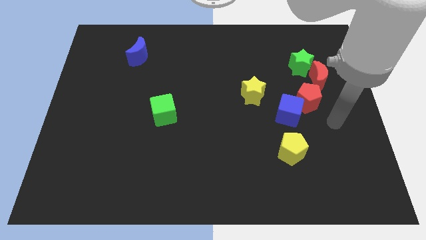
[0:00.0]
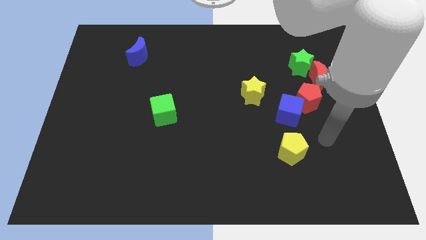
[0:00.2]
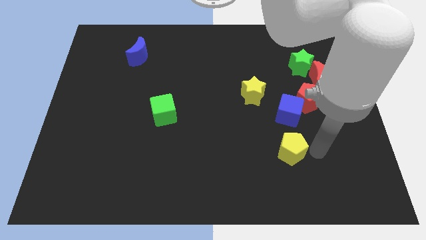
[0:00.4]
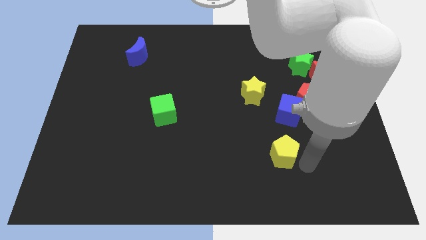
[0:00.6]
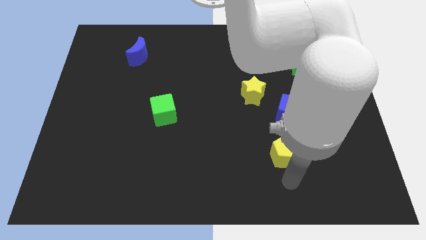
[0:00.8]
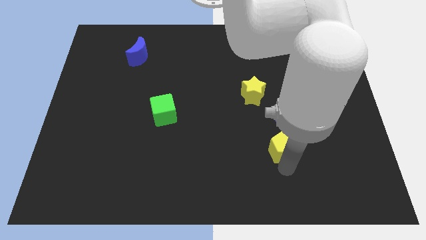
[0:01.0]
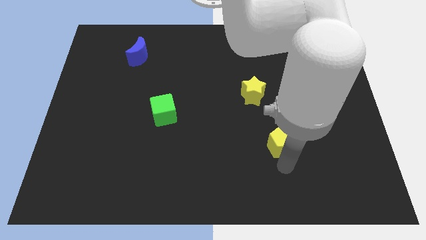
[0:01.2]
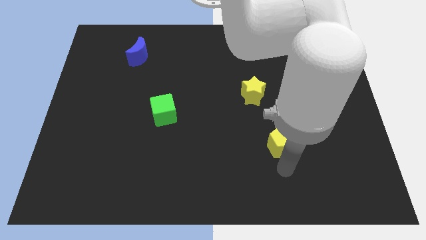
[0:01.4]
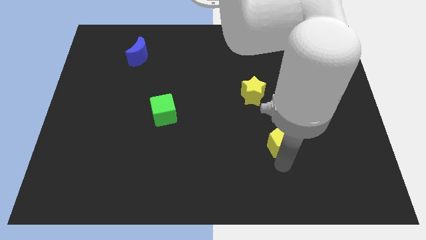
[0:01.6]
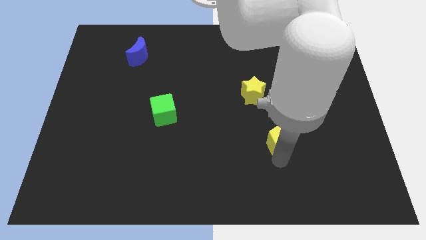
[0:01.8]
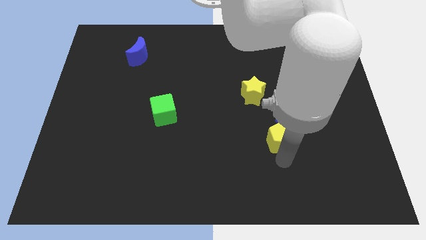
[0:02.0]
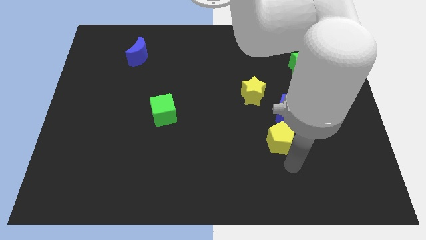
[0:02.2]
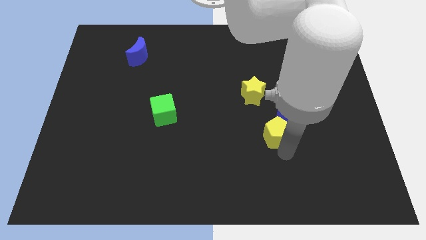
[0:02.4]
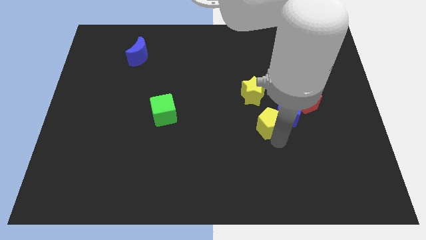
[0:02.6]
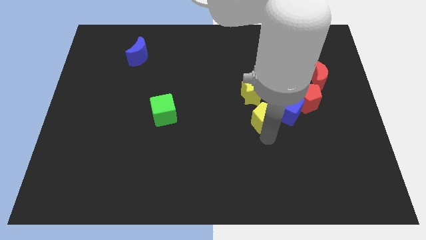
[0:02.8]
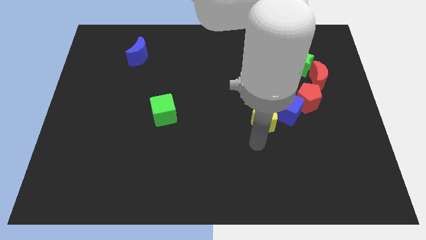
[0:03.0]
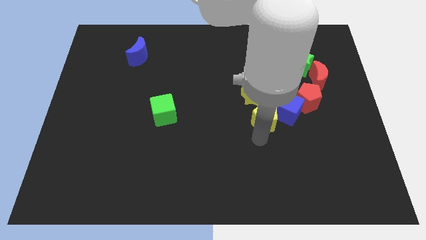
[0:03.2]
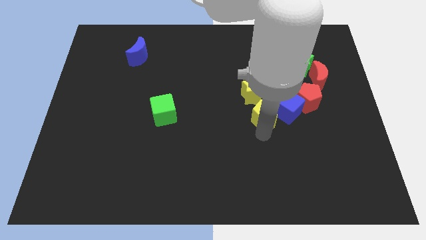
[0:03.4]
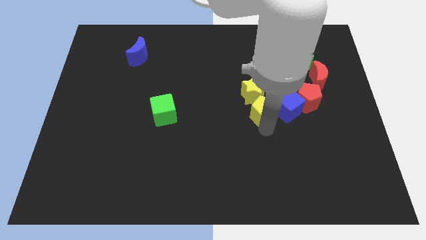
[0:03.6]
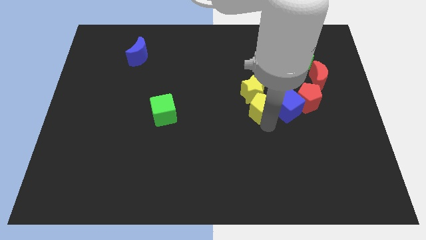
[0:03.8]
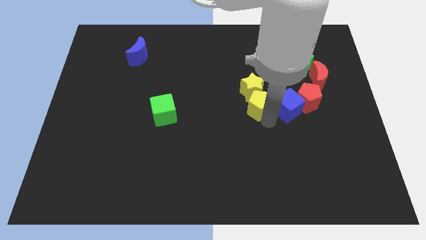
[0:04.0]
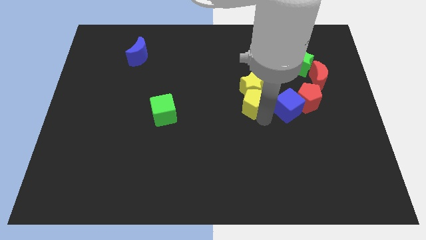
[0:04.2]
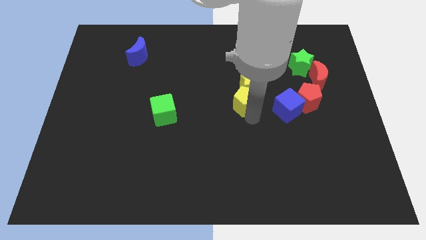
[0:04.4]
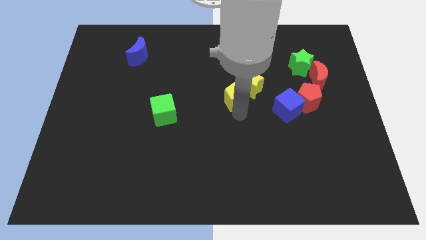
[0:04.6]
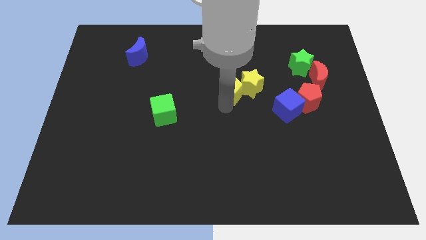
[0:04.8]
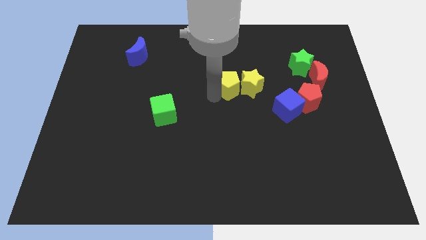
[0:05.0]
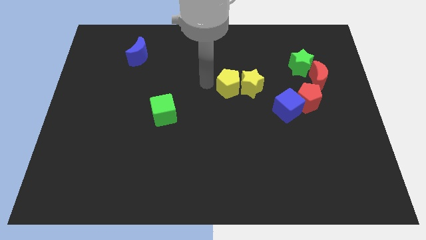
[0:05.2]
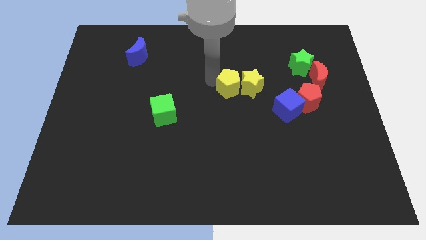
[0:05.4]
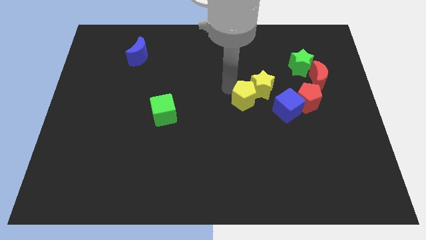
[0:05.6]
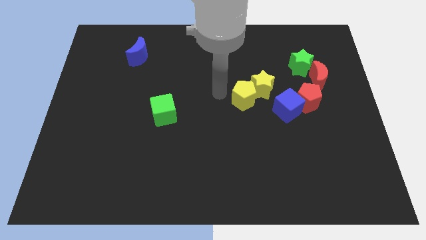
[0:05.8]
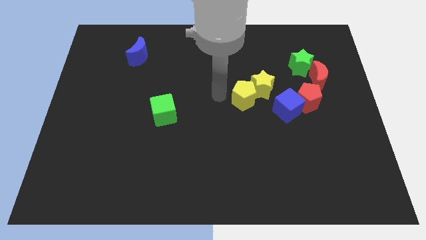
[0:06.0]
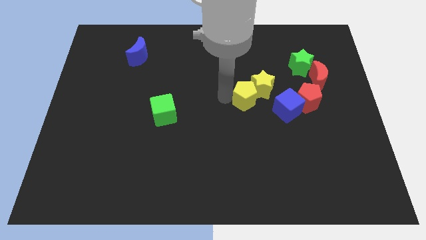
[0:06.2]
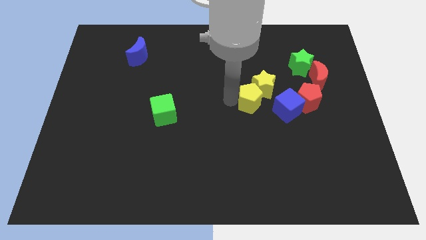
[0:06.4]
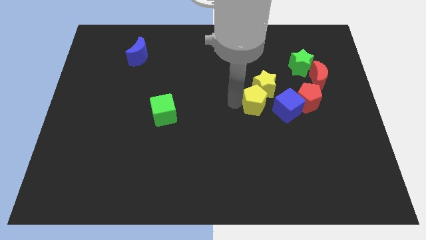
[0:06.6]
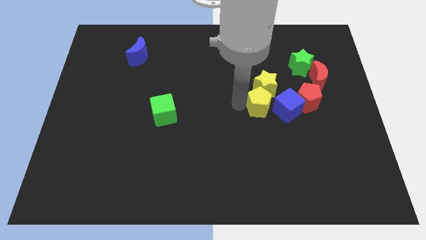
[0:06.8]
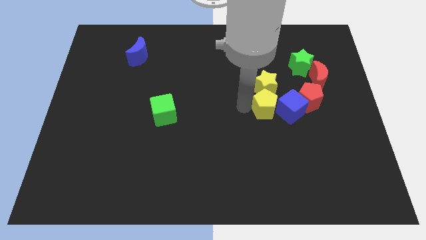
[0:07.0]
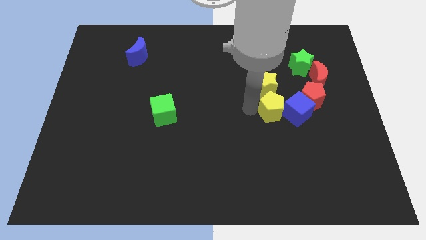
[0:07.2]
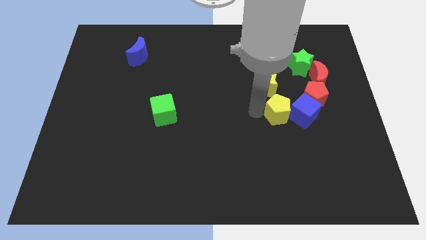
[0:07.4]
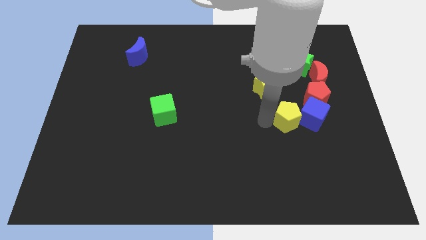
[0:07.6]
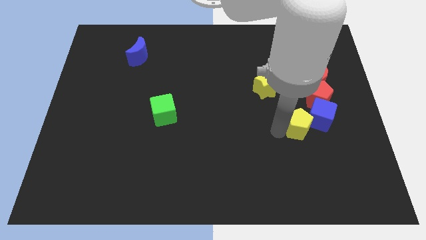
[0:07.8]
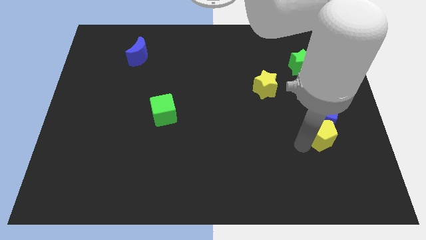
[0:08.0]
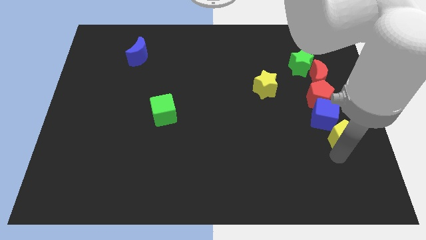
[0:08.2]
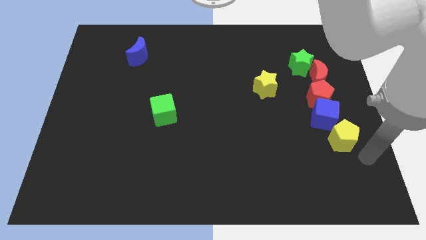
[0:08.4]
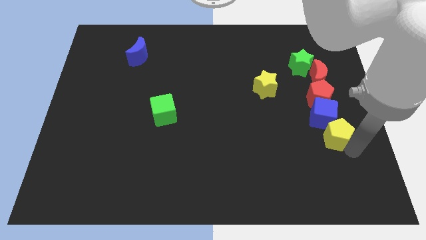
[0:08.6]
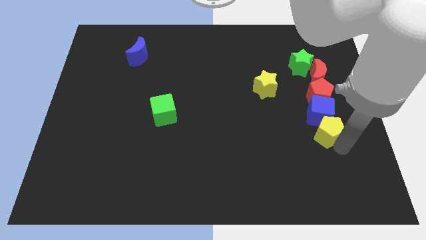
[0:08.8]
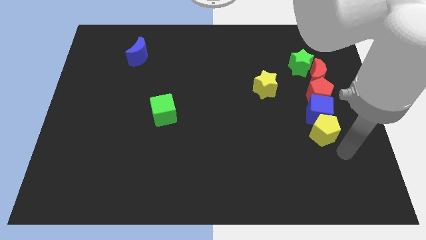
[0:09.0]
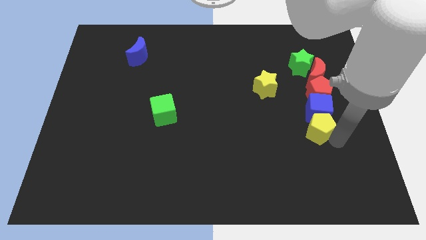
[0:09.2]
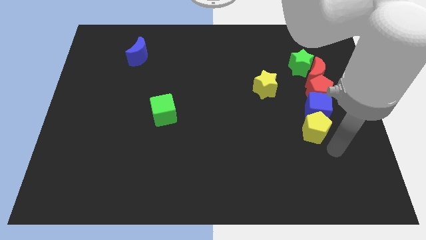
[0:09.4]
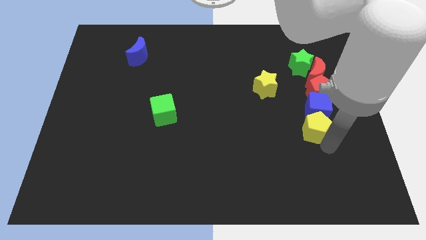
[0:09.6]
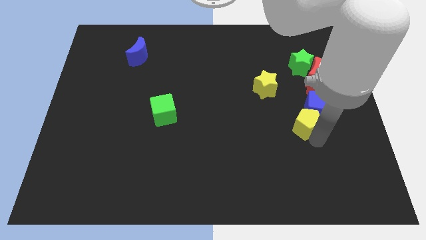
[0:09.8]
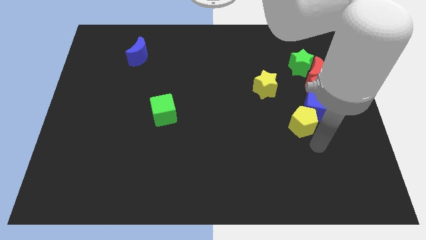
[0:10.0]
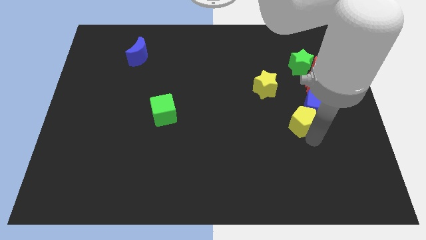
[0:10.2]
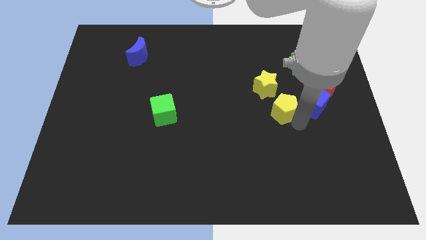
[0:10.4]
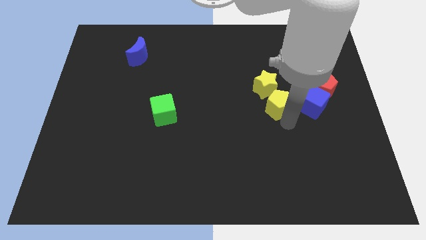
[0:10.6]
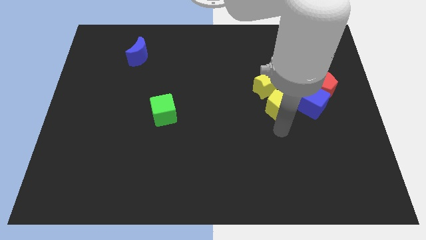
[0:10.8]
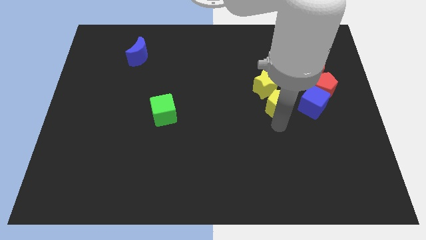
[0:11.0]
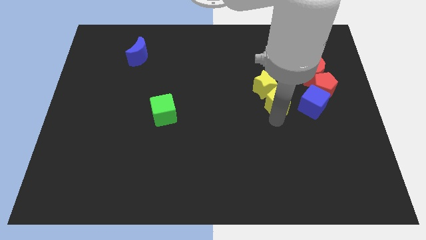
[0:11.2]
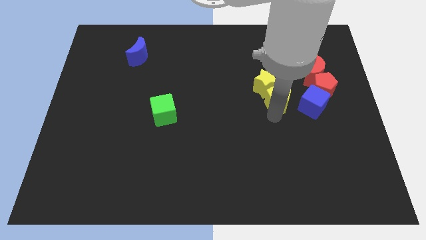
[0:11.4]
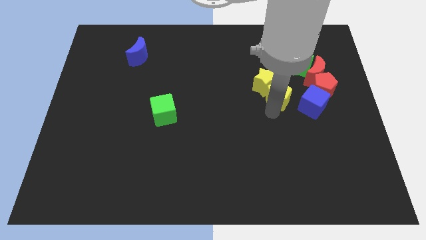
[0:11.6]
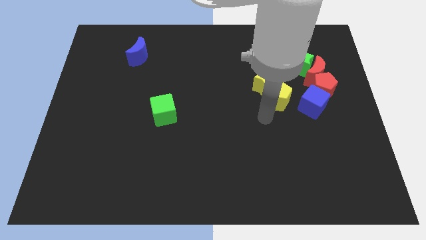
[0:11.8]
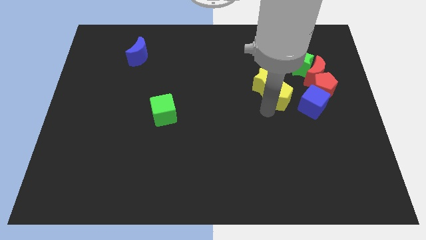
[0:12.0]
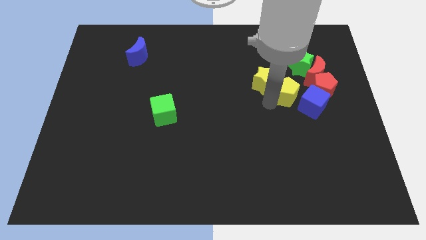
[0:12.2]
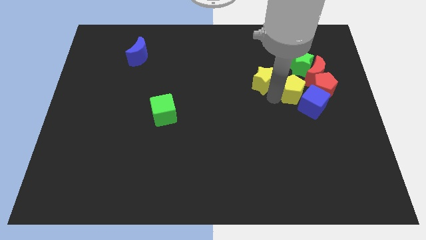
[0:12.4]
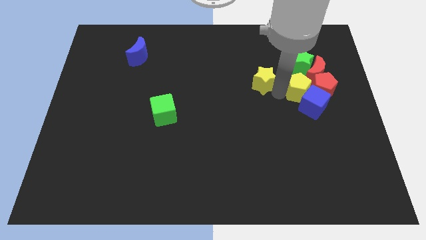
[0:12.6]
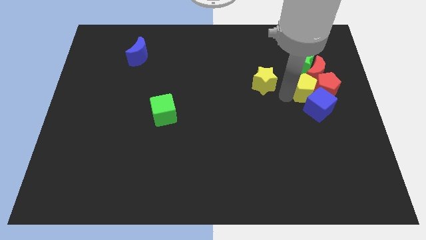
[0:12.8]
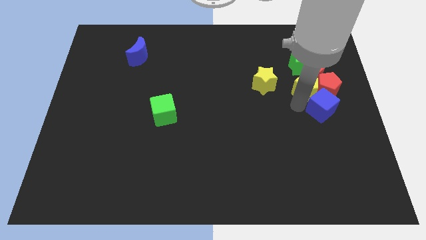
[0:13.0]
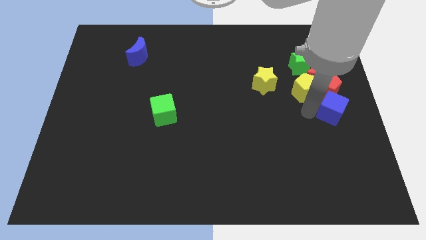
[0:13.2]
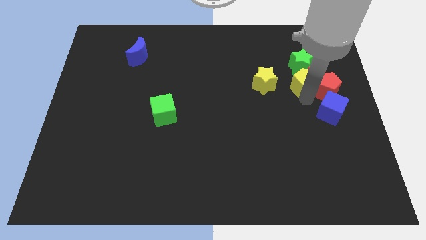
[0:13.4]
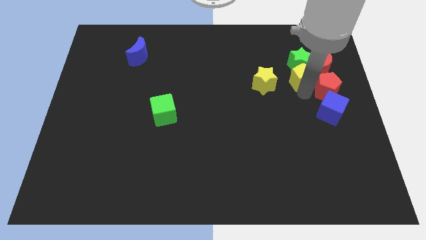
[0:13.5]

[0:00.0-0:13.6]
push the yellow pentagon next to the green star

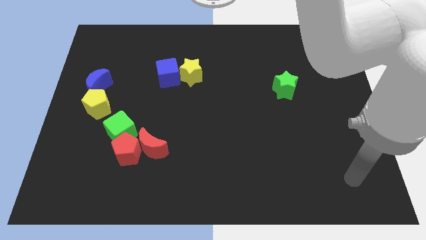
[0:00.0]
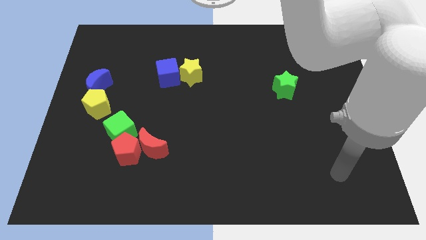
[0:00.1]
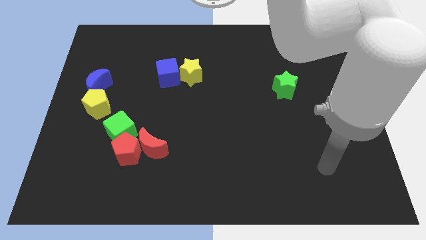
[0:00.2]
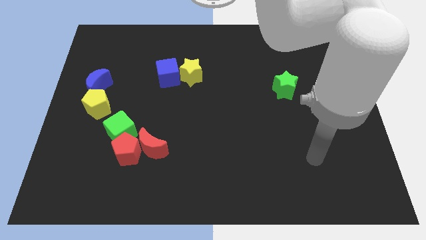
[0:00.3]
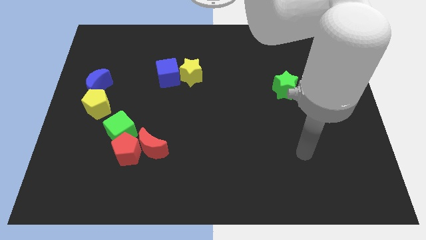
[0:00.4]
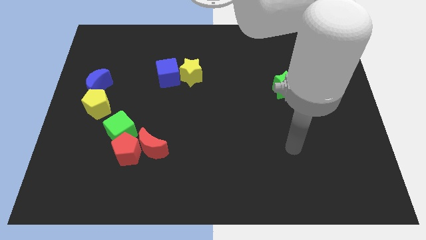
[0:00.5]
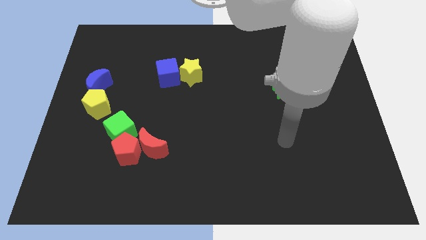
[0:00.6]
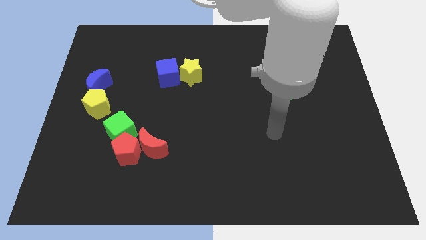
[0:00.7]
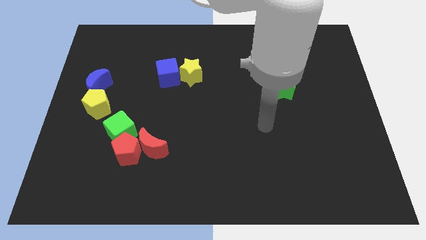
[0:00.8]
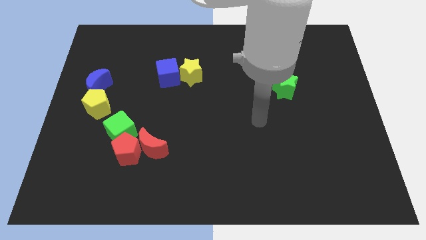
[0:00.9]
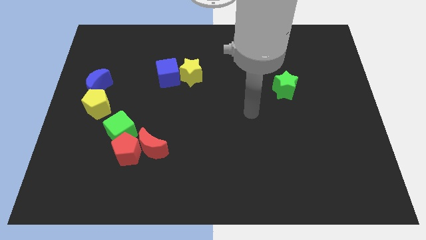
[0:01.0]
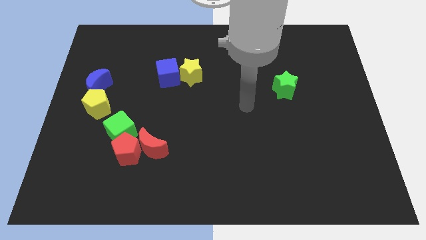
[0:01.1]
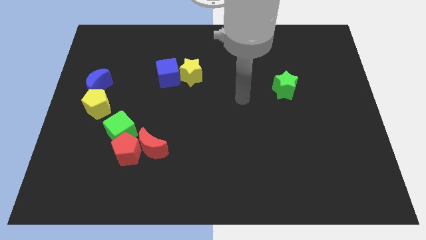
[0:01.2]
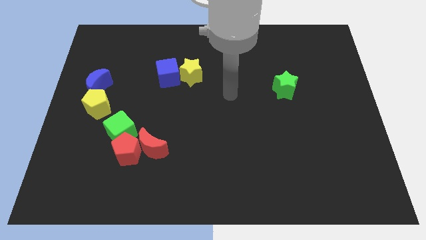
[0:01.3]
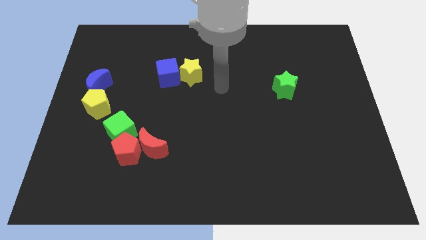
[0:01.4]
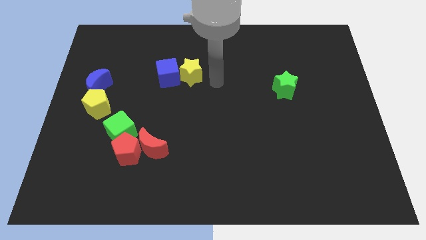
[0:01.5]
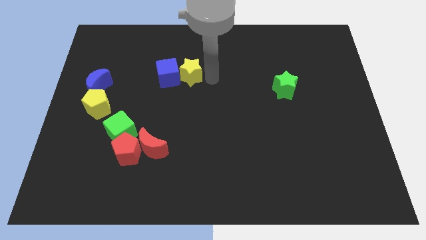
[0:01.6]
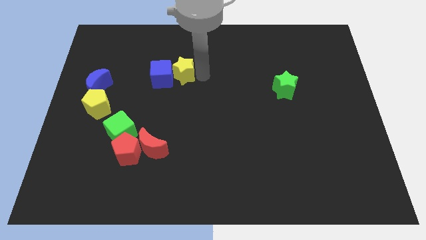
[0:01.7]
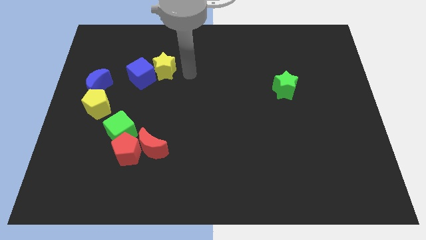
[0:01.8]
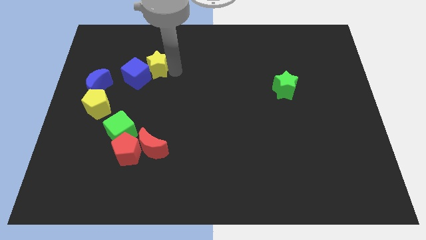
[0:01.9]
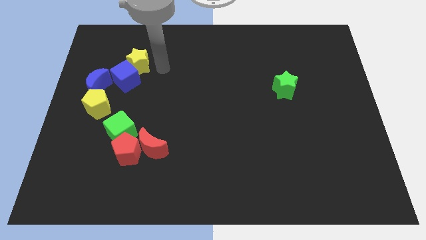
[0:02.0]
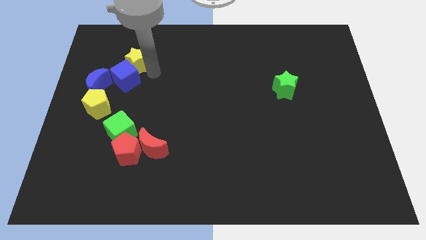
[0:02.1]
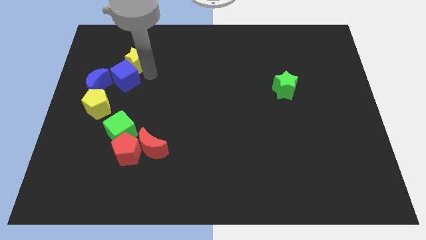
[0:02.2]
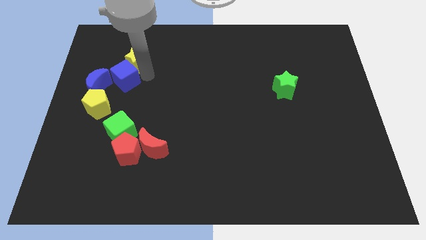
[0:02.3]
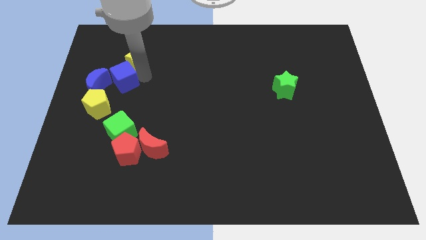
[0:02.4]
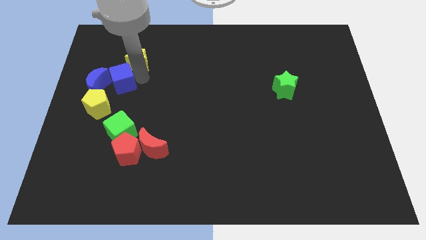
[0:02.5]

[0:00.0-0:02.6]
move the blue cube towards the blue moon
